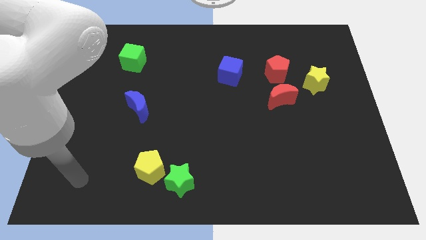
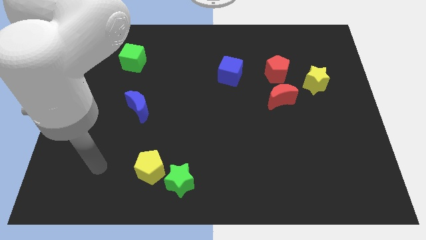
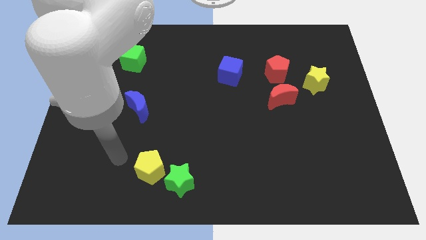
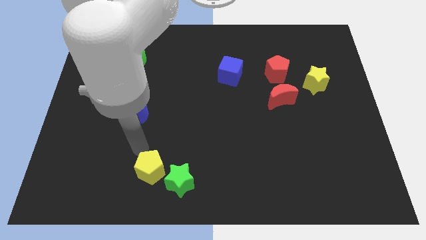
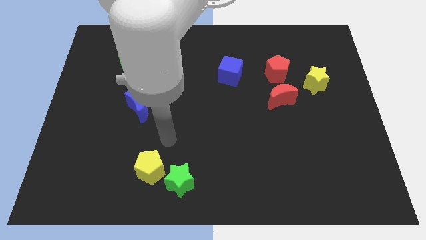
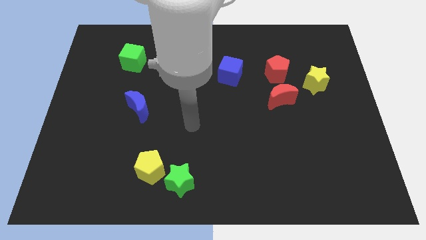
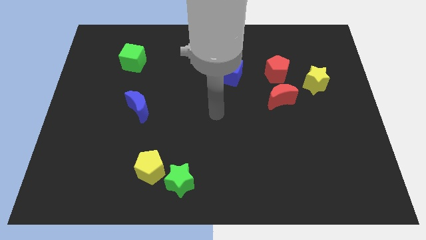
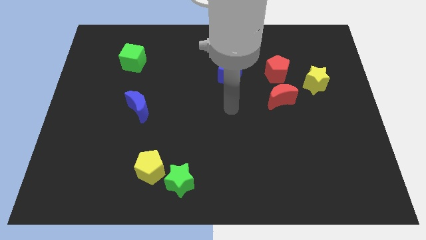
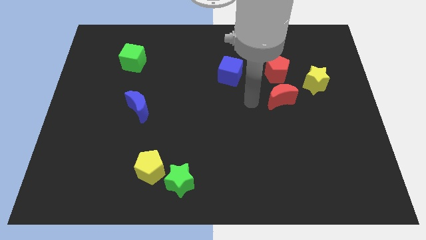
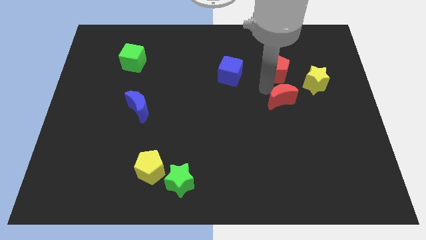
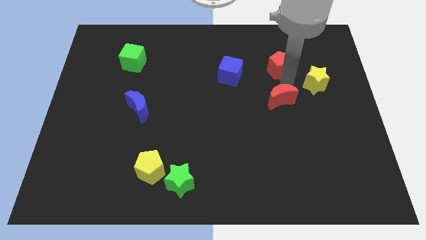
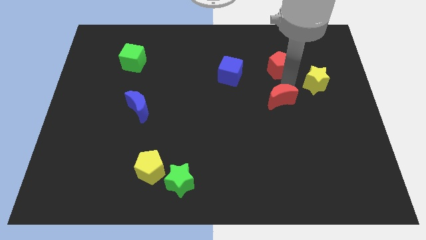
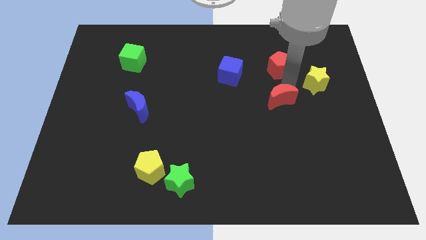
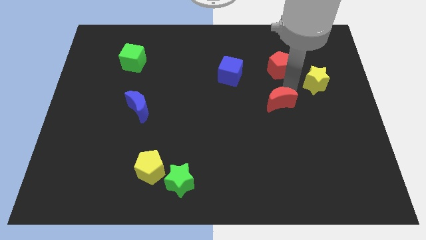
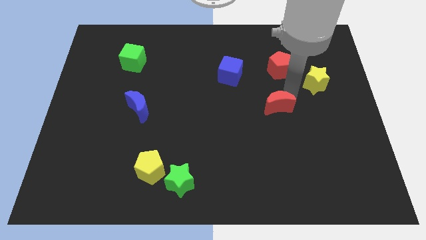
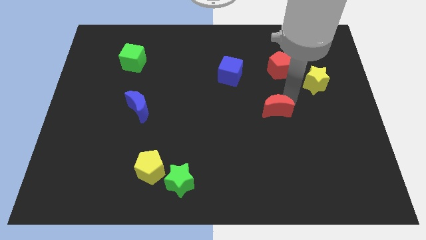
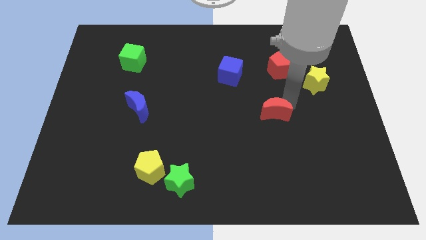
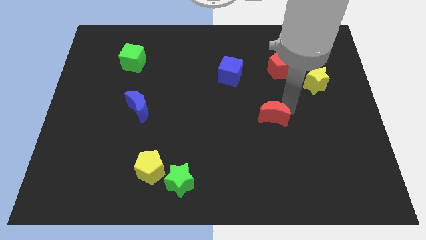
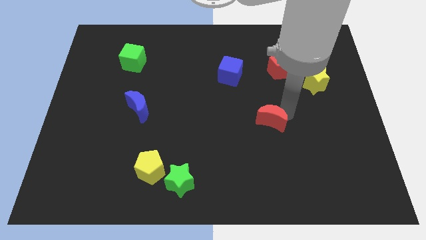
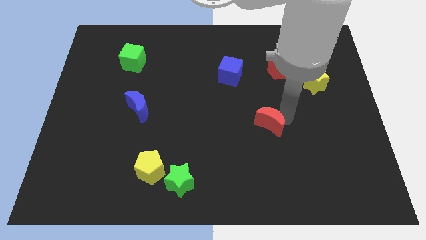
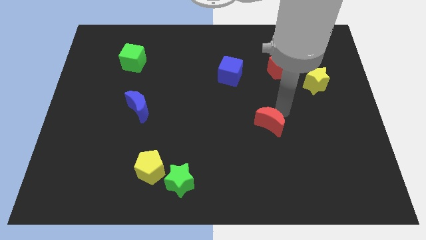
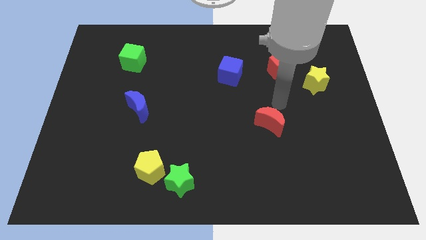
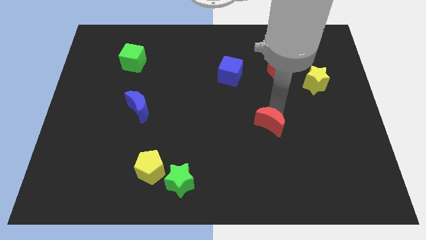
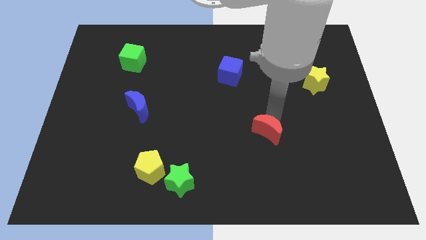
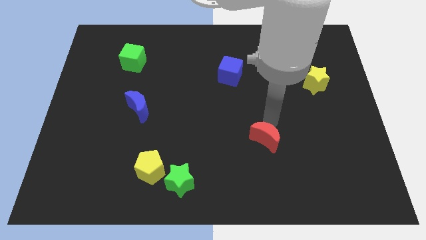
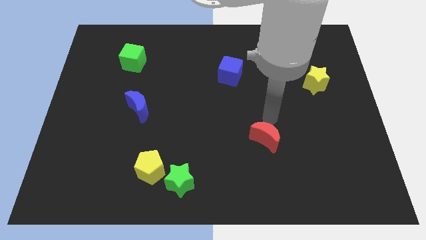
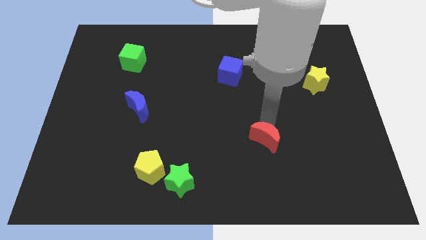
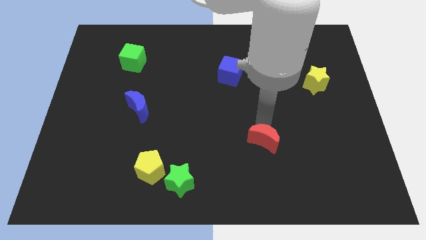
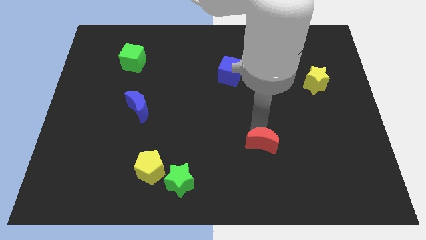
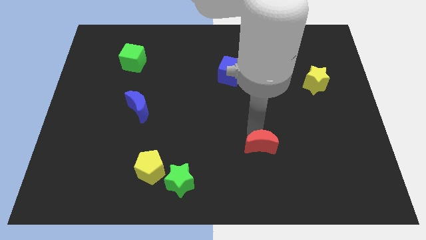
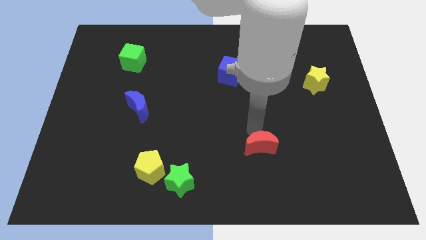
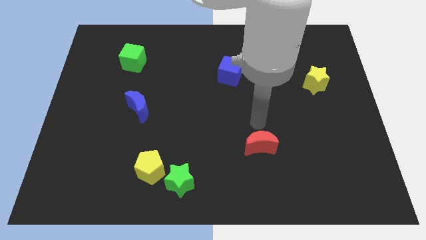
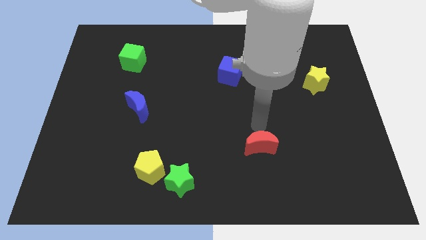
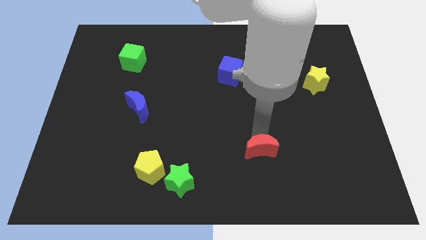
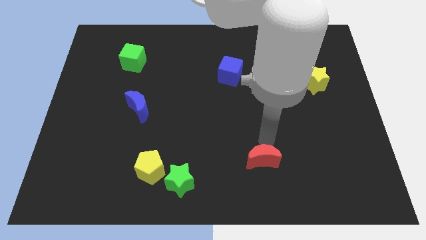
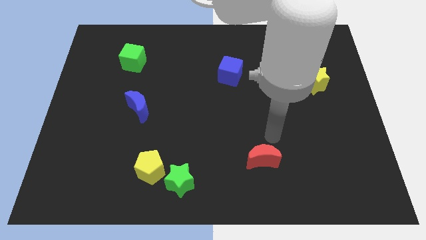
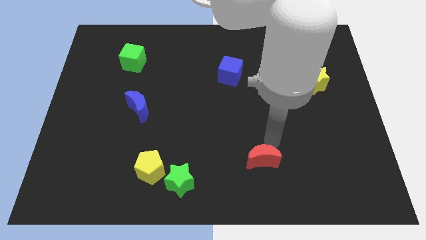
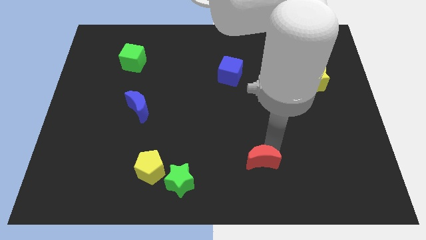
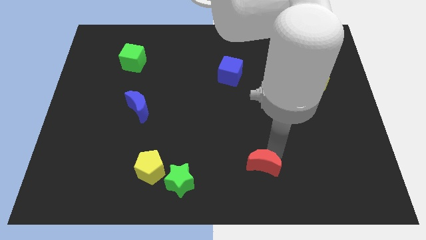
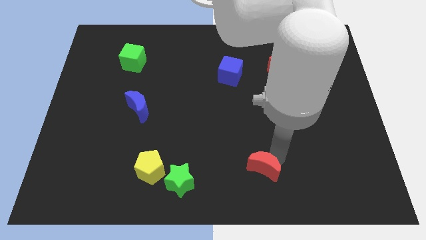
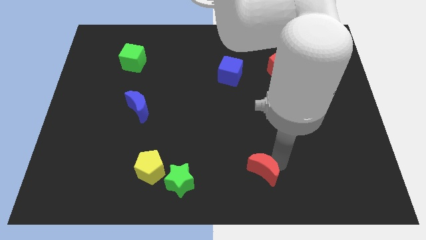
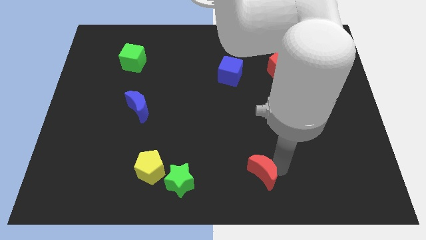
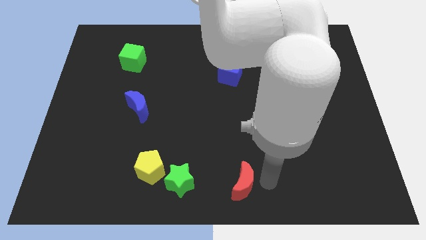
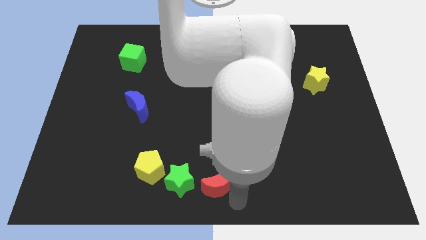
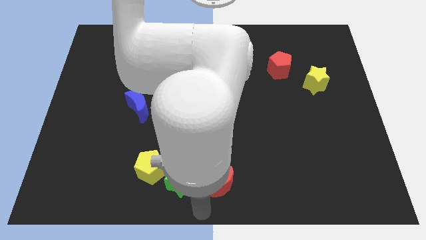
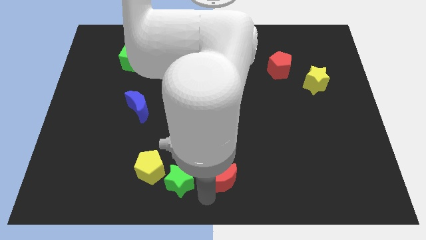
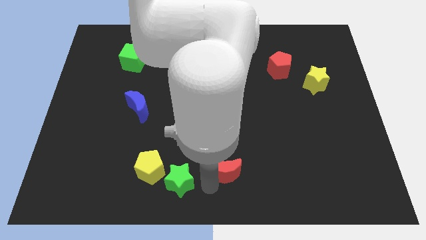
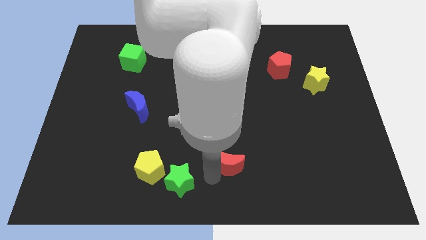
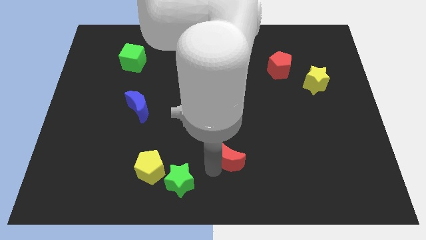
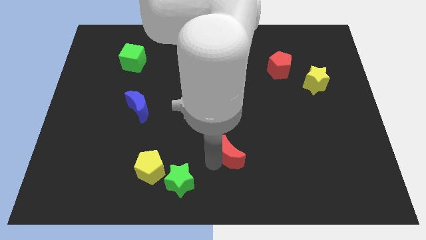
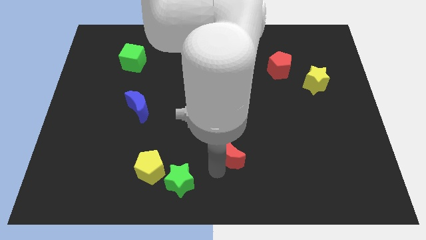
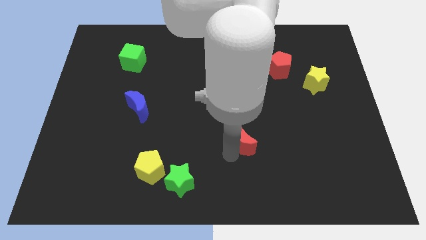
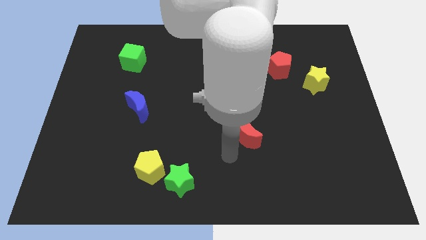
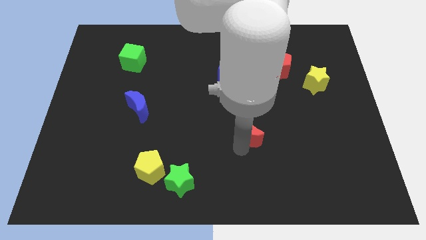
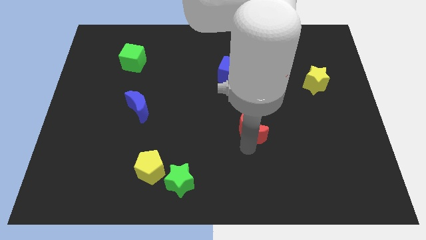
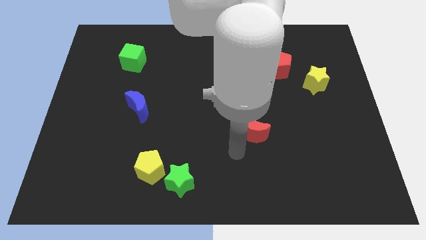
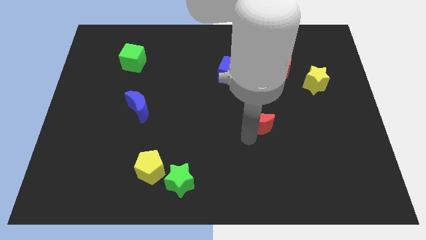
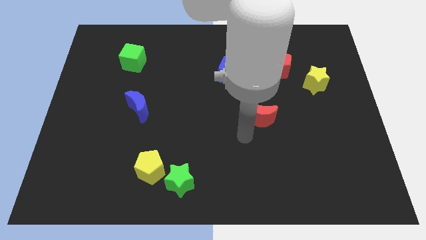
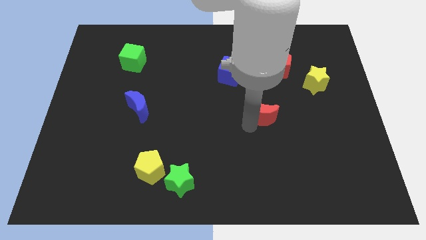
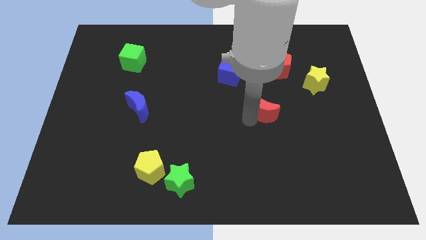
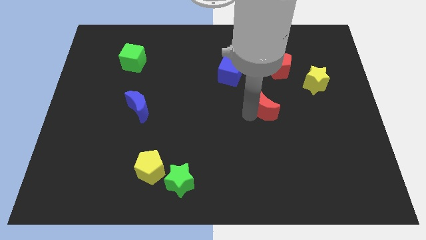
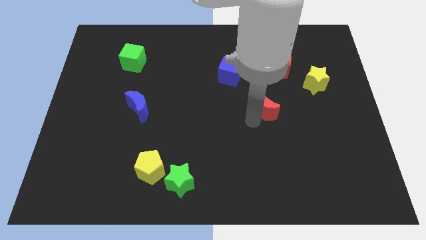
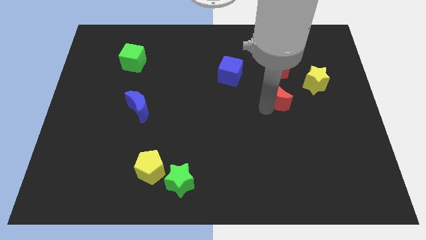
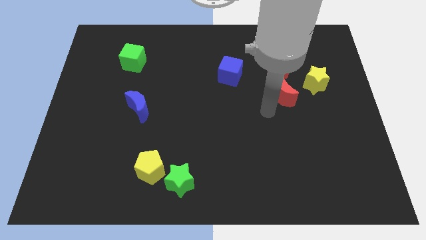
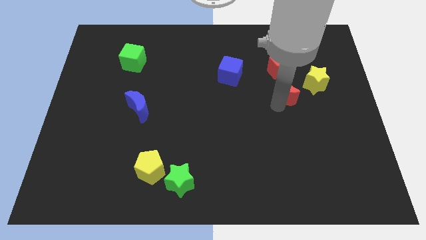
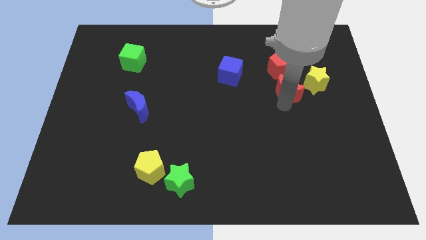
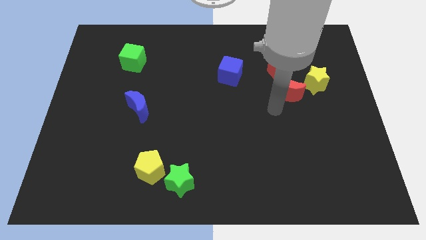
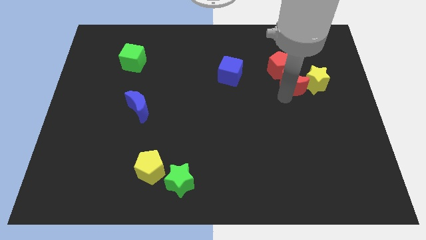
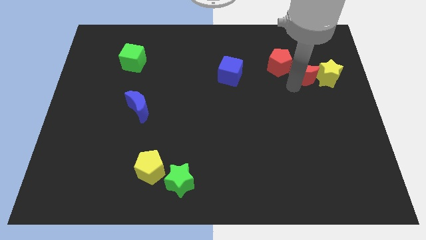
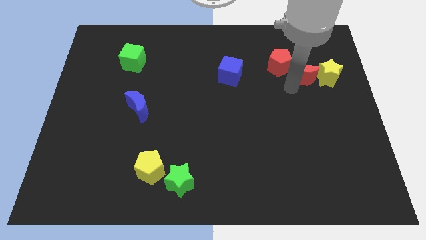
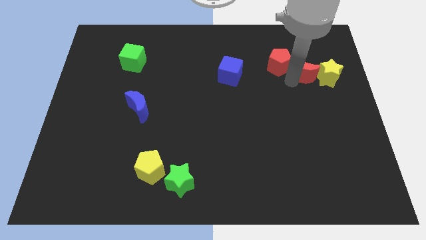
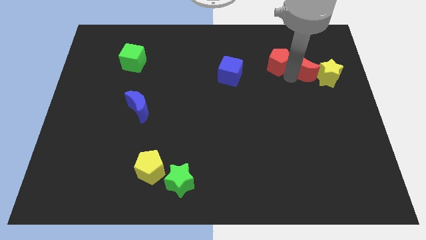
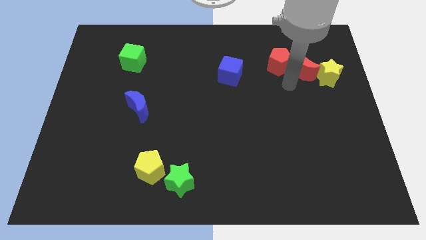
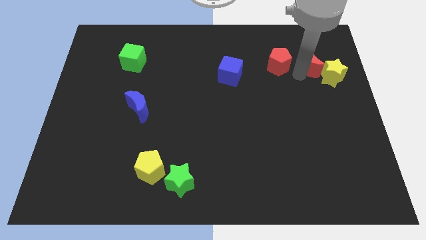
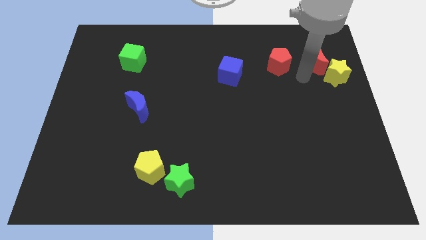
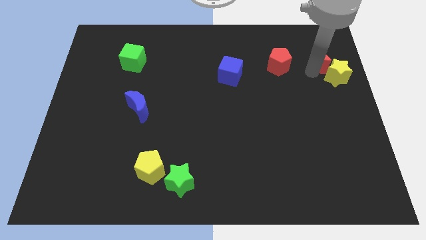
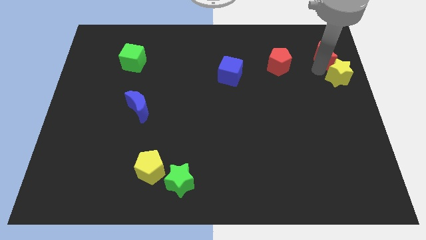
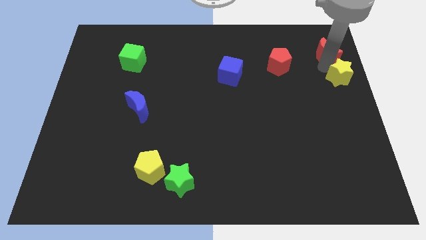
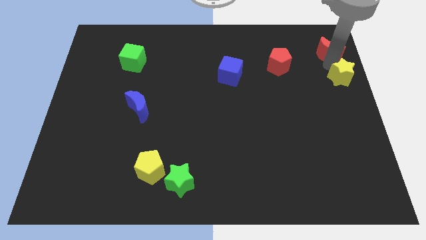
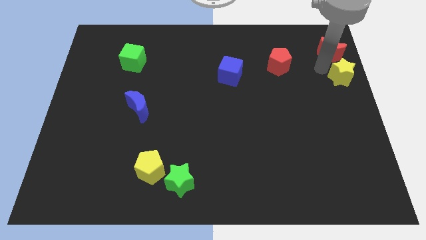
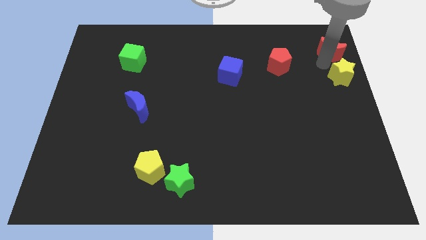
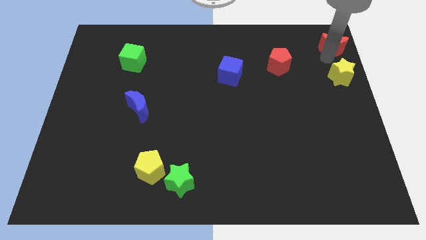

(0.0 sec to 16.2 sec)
slide the red moon to the top right corner
